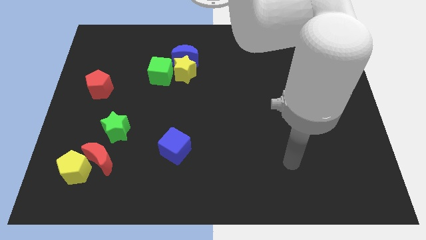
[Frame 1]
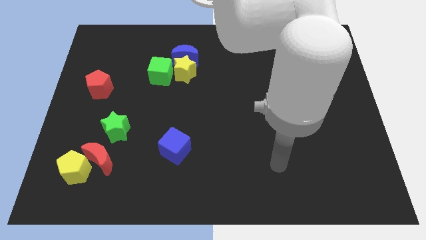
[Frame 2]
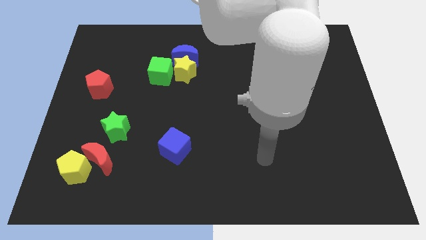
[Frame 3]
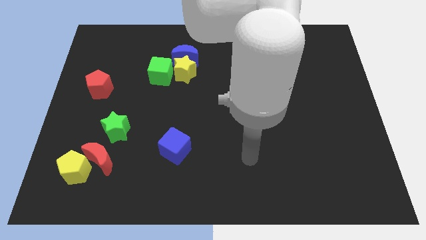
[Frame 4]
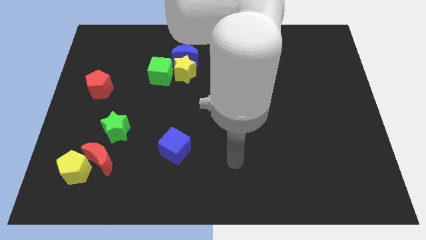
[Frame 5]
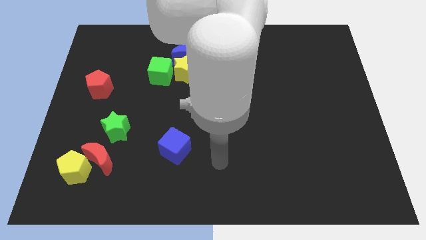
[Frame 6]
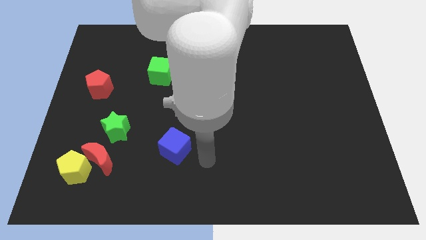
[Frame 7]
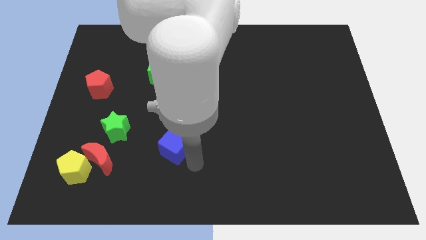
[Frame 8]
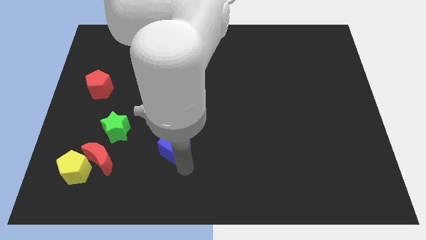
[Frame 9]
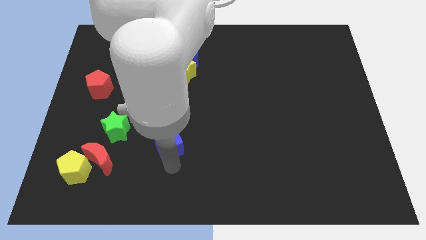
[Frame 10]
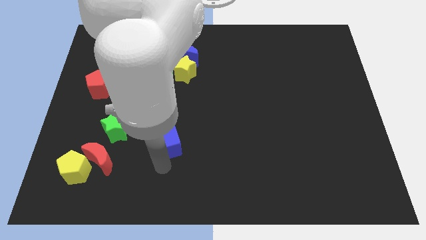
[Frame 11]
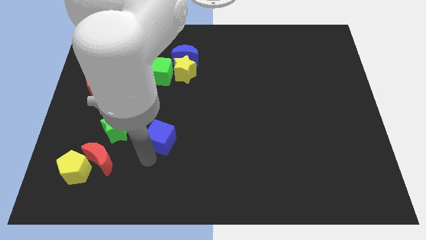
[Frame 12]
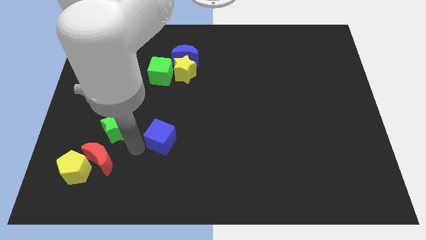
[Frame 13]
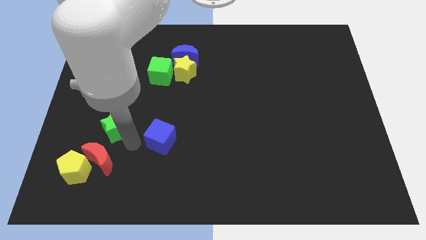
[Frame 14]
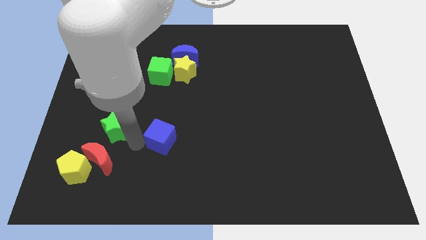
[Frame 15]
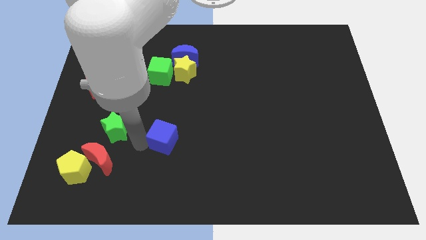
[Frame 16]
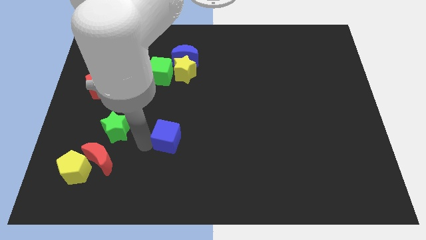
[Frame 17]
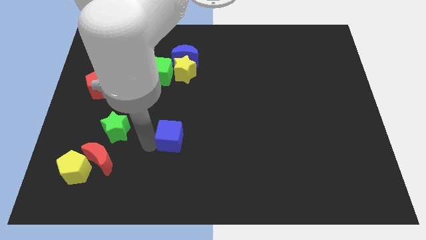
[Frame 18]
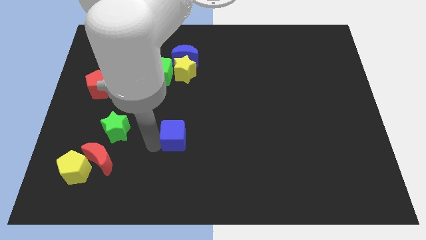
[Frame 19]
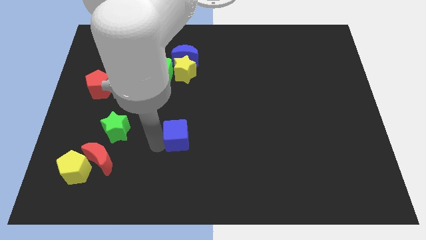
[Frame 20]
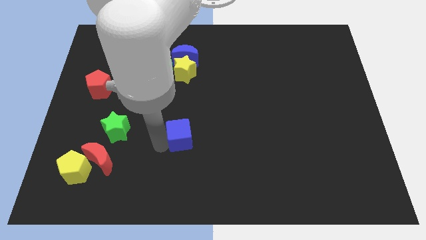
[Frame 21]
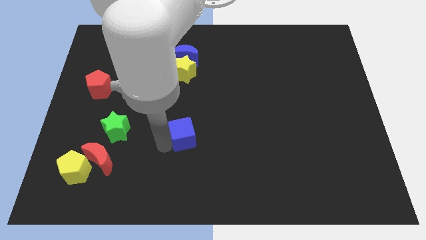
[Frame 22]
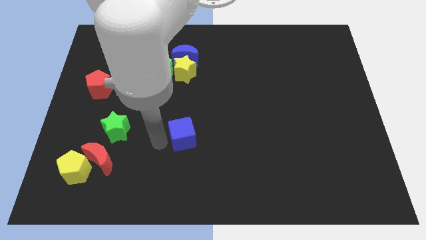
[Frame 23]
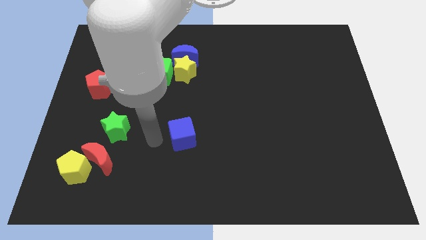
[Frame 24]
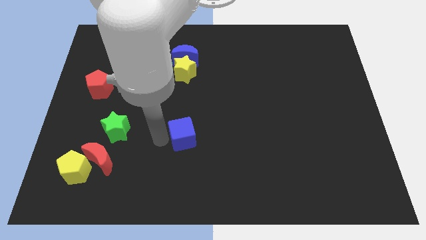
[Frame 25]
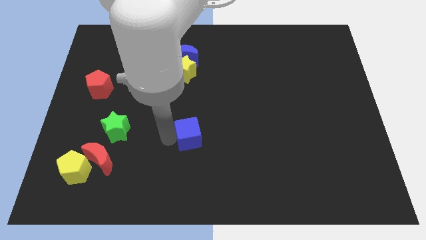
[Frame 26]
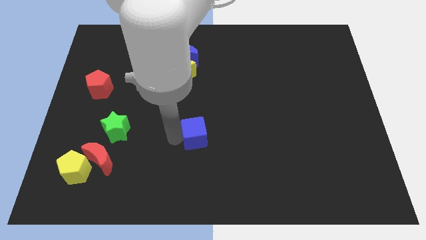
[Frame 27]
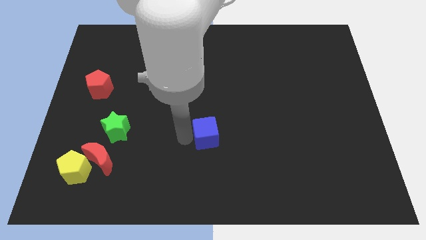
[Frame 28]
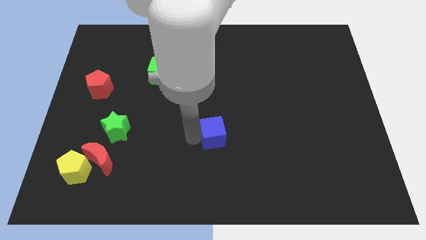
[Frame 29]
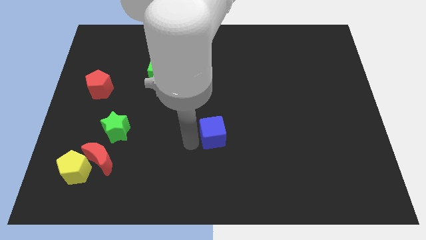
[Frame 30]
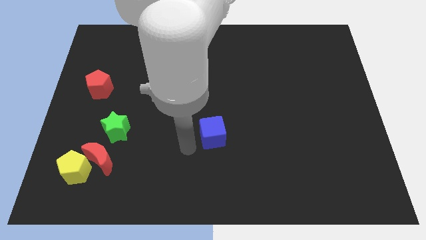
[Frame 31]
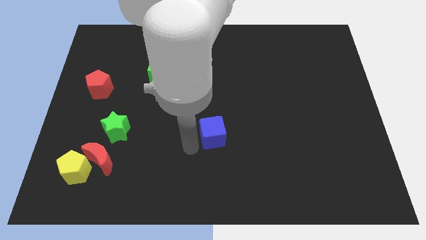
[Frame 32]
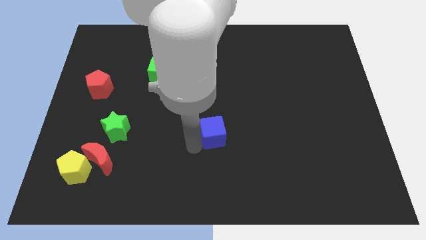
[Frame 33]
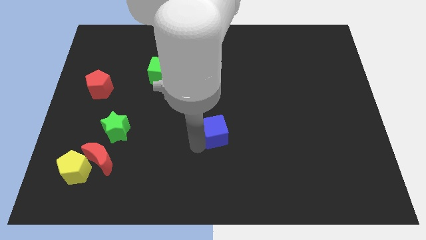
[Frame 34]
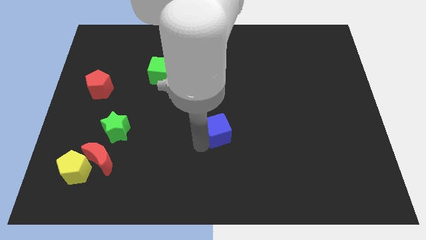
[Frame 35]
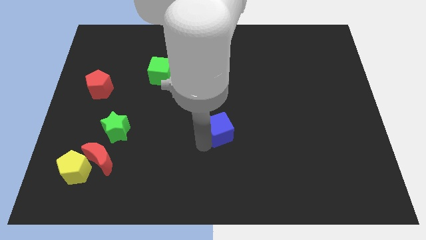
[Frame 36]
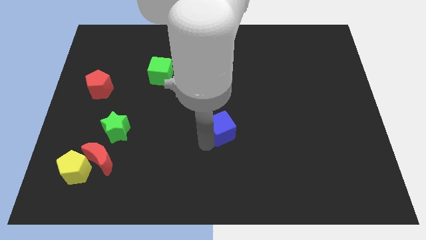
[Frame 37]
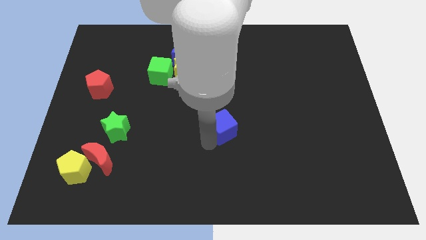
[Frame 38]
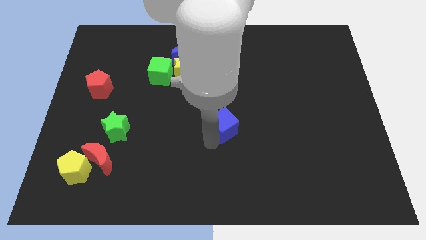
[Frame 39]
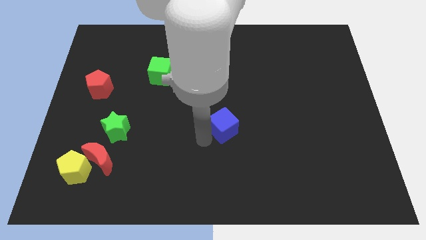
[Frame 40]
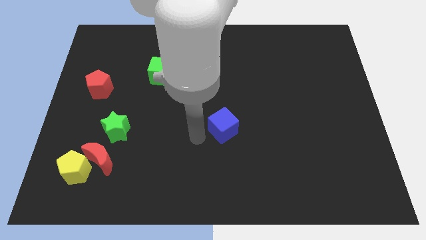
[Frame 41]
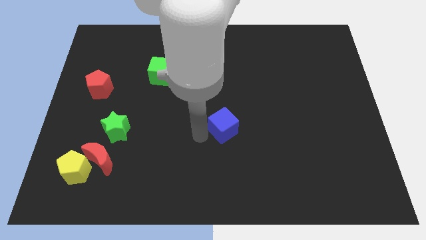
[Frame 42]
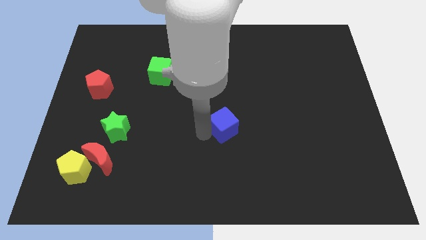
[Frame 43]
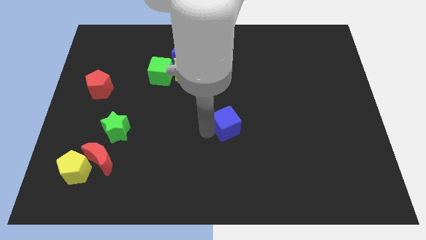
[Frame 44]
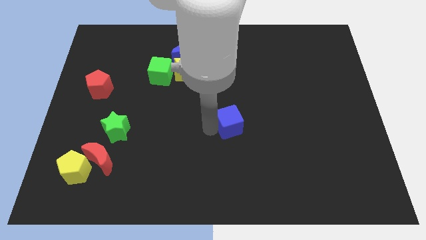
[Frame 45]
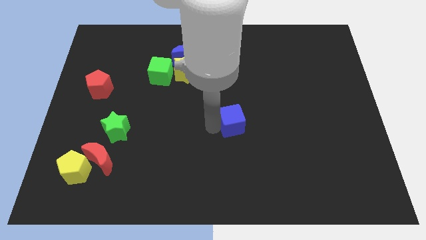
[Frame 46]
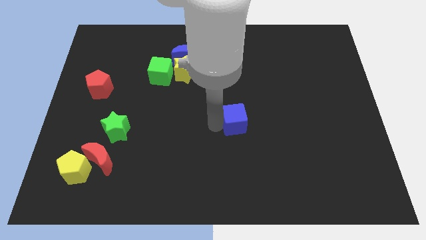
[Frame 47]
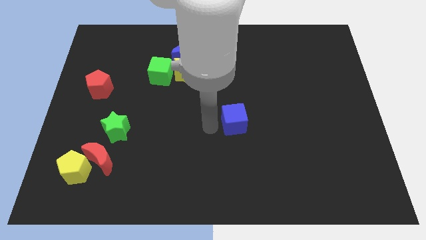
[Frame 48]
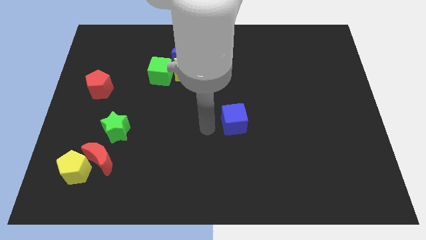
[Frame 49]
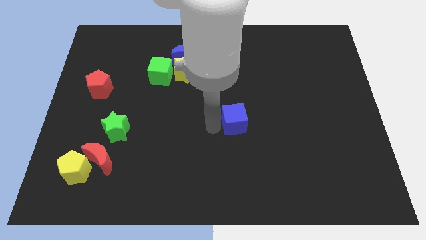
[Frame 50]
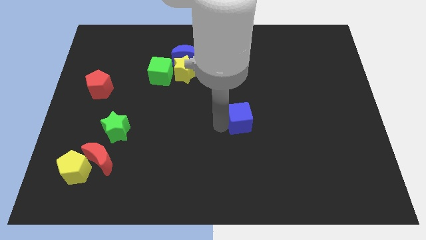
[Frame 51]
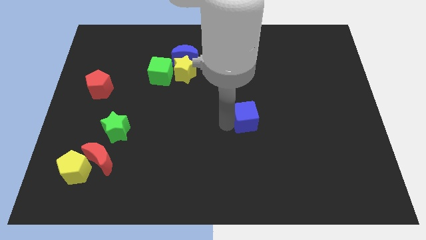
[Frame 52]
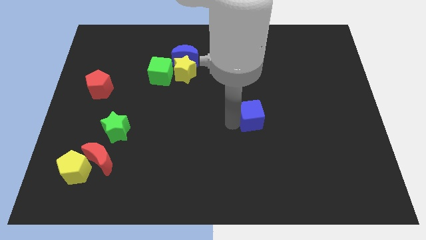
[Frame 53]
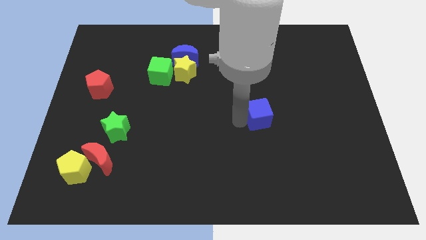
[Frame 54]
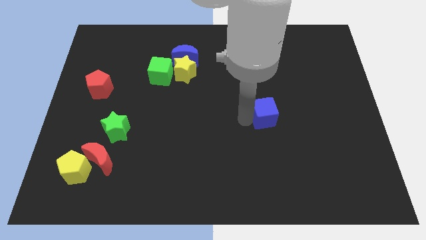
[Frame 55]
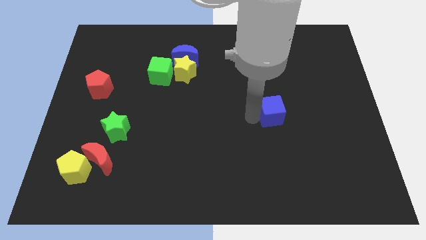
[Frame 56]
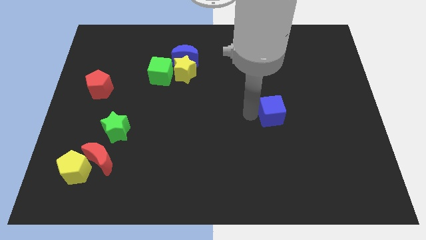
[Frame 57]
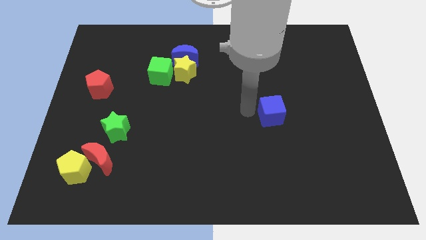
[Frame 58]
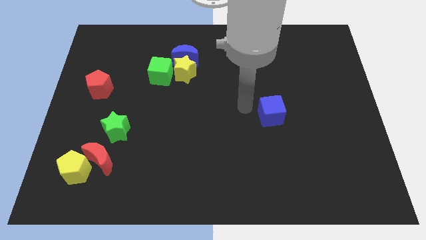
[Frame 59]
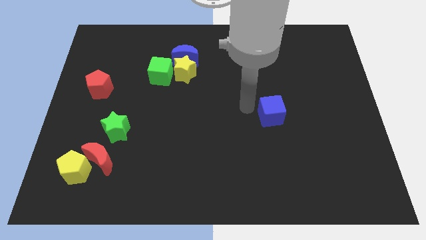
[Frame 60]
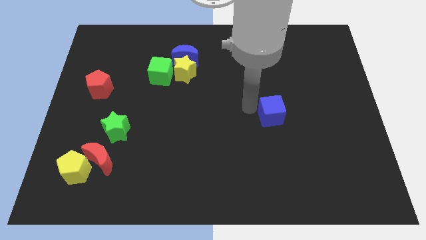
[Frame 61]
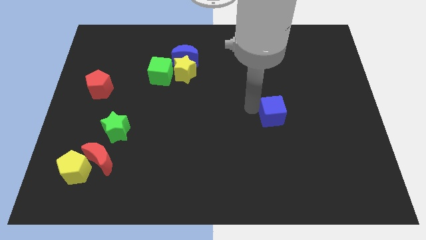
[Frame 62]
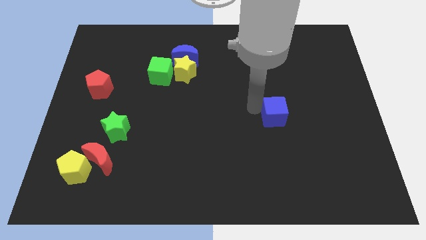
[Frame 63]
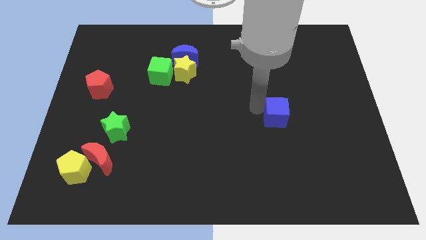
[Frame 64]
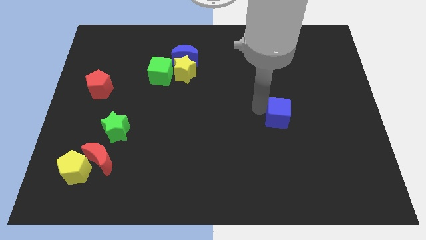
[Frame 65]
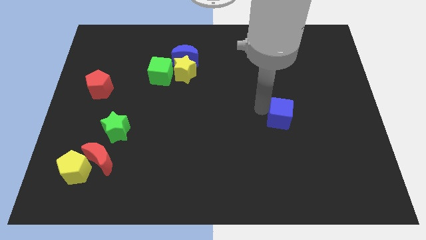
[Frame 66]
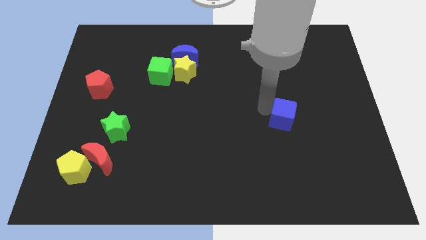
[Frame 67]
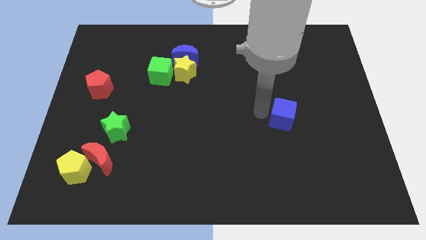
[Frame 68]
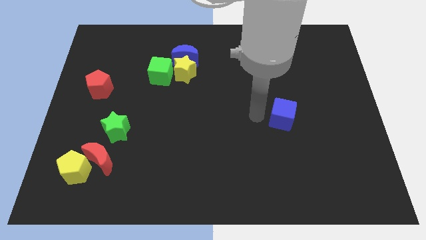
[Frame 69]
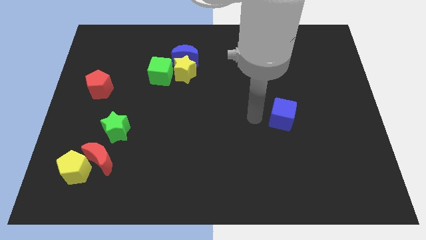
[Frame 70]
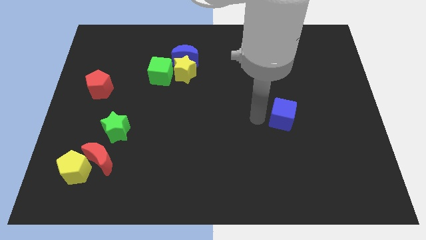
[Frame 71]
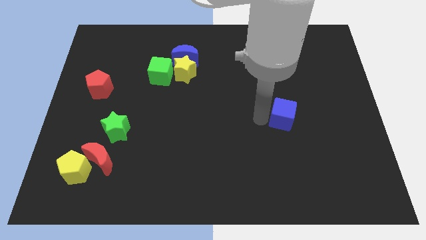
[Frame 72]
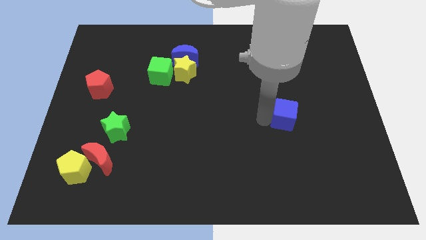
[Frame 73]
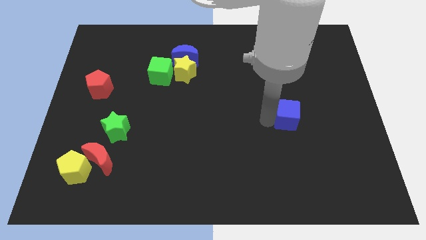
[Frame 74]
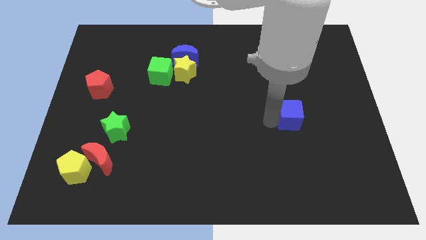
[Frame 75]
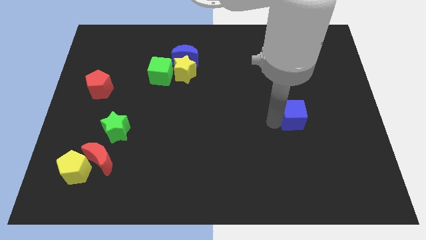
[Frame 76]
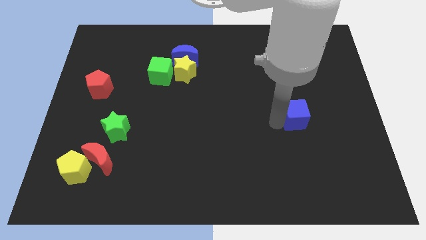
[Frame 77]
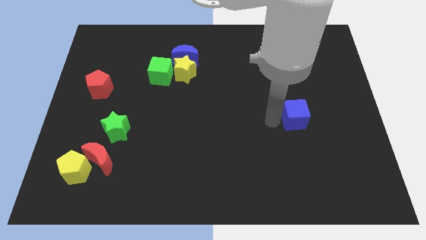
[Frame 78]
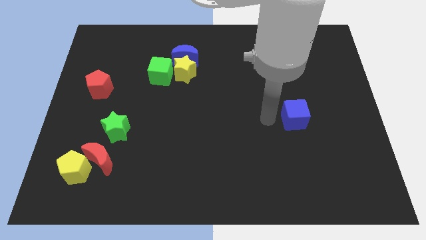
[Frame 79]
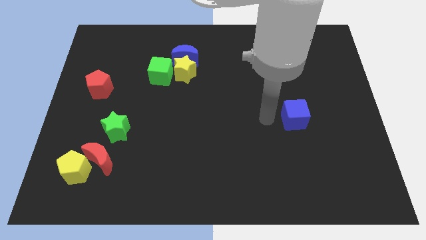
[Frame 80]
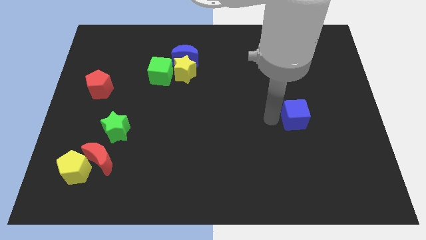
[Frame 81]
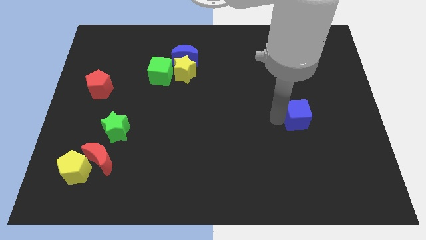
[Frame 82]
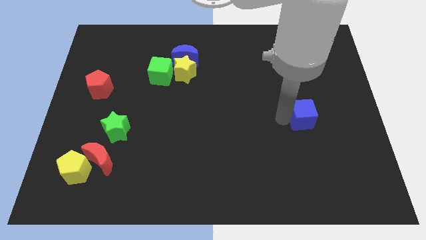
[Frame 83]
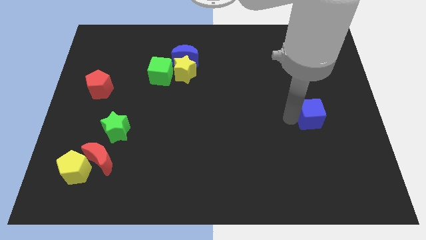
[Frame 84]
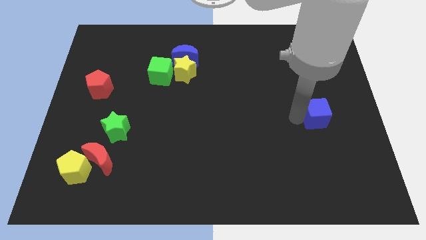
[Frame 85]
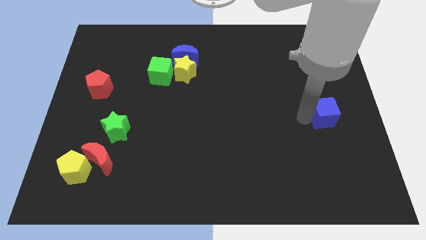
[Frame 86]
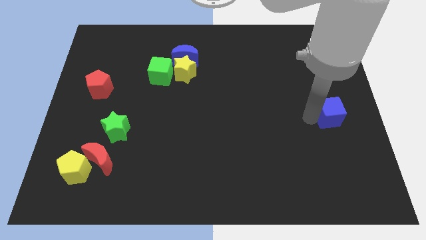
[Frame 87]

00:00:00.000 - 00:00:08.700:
slide the blue cube to the right side of the board
